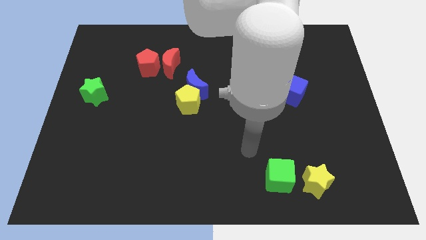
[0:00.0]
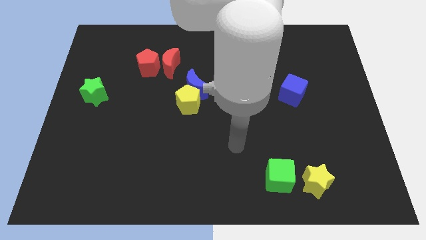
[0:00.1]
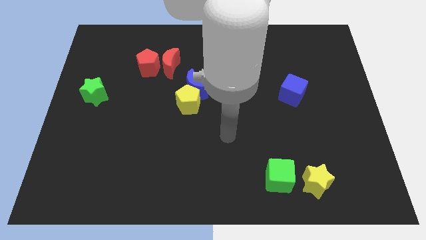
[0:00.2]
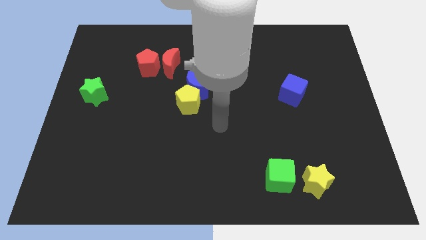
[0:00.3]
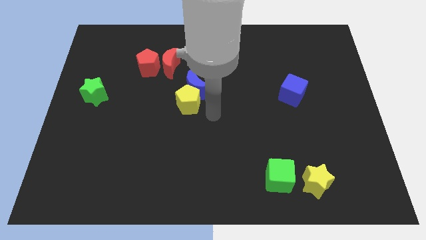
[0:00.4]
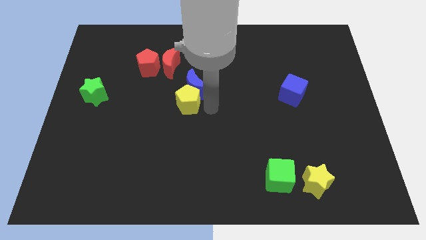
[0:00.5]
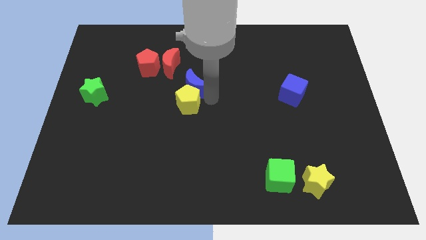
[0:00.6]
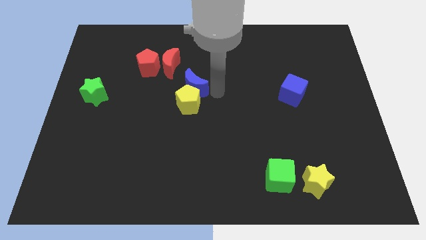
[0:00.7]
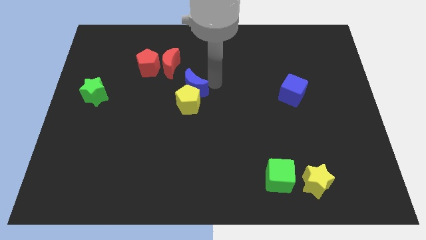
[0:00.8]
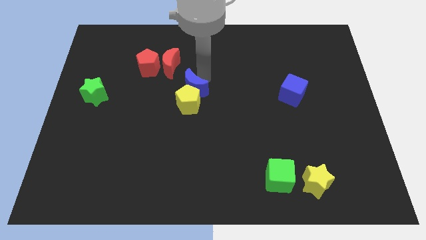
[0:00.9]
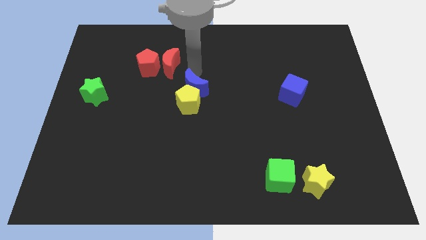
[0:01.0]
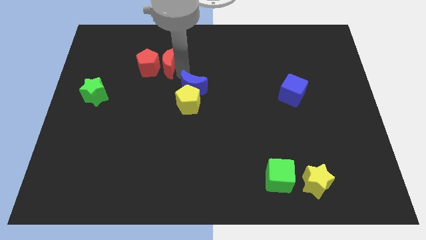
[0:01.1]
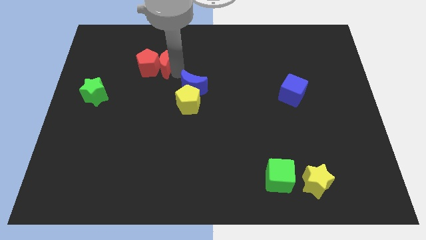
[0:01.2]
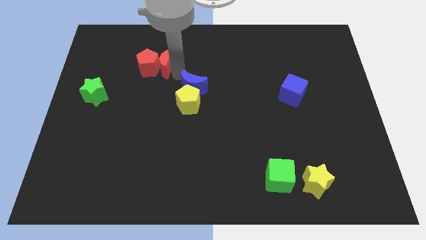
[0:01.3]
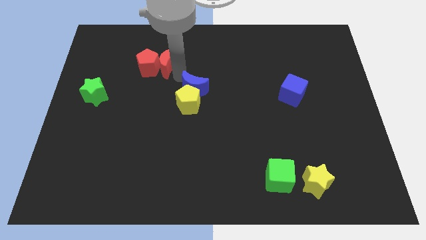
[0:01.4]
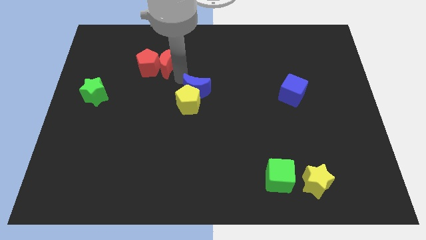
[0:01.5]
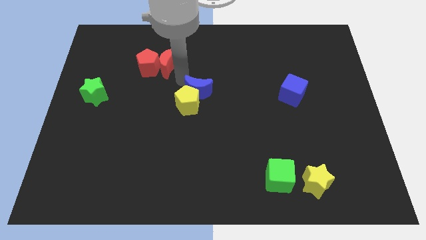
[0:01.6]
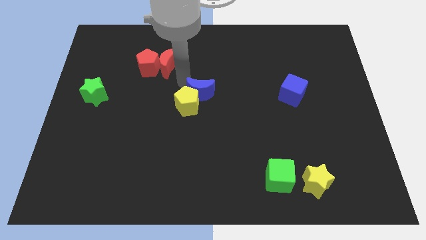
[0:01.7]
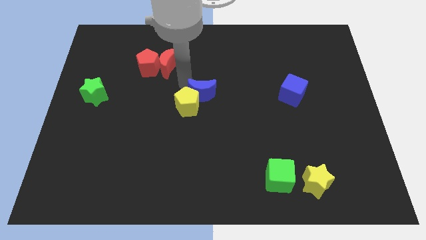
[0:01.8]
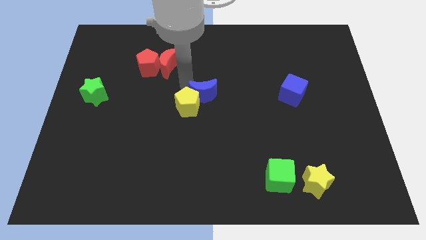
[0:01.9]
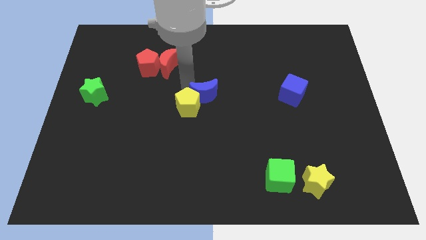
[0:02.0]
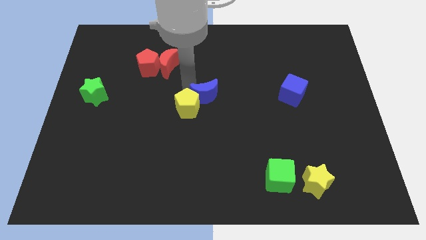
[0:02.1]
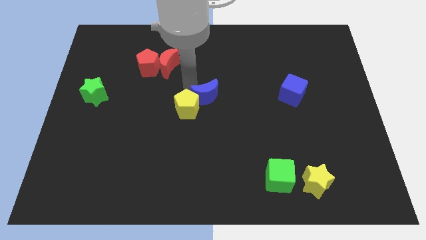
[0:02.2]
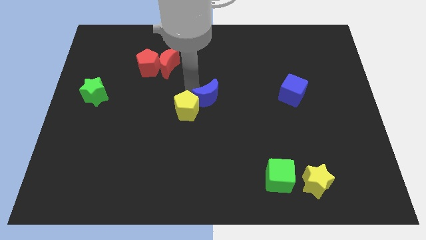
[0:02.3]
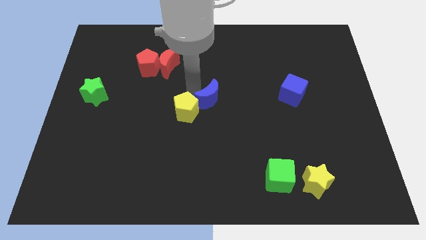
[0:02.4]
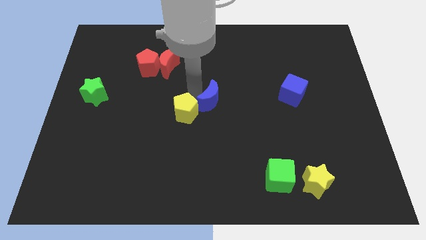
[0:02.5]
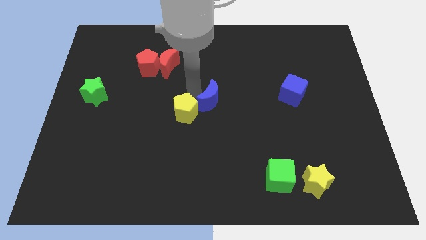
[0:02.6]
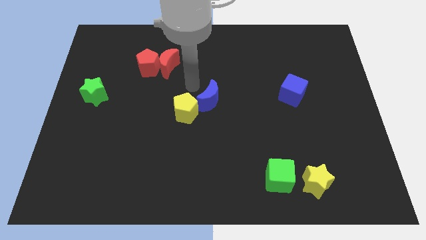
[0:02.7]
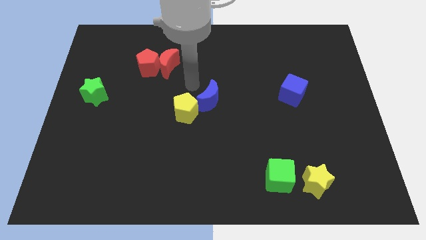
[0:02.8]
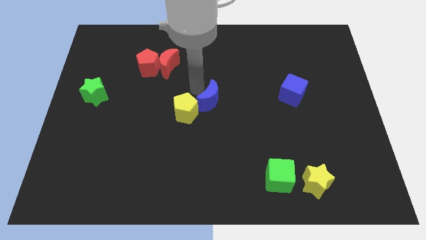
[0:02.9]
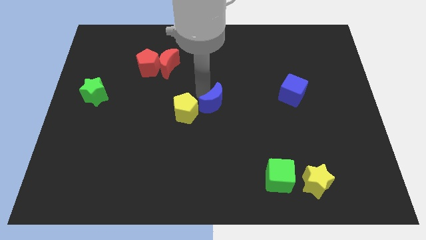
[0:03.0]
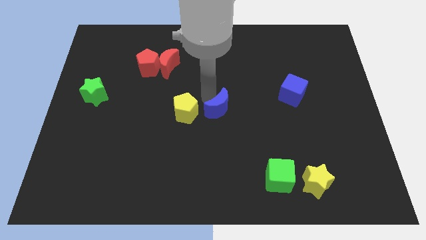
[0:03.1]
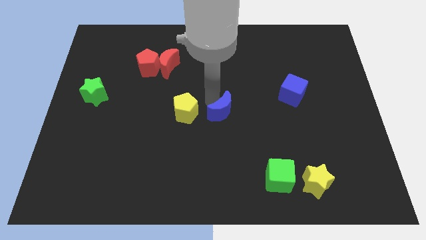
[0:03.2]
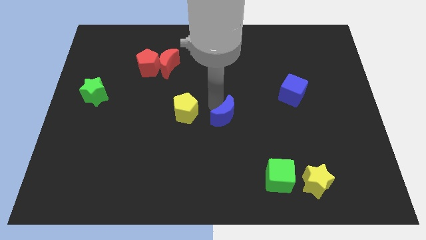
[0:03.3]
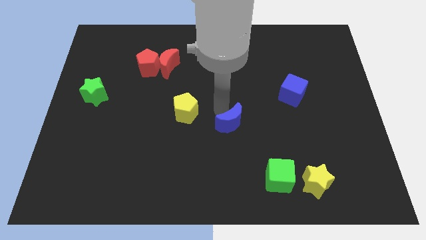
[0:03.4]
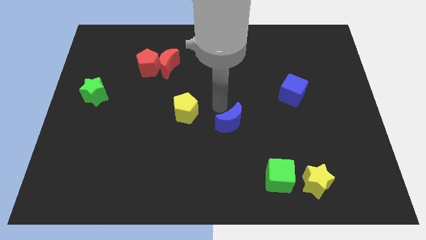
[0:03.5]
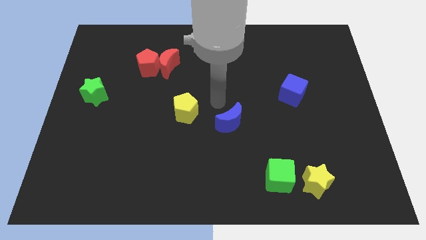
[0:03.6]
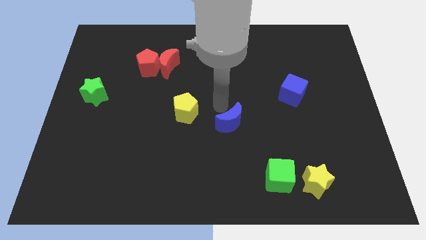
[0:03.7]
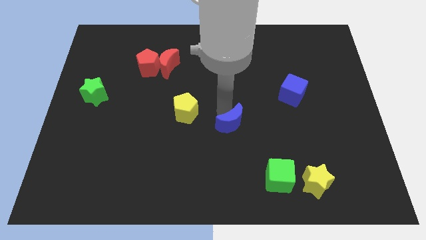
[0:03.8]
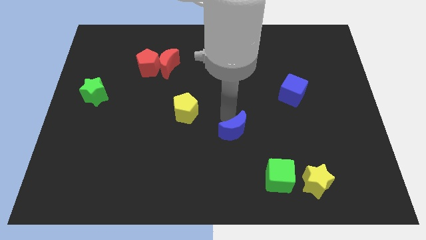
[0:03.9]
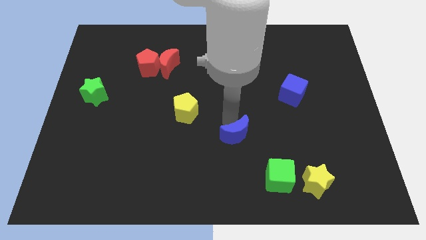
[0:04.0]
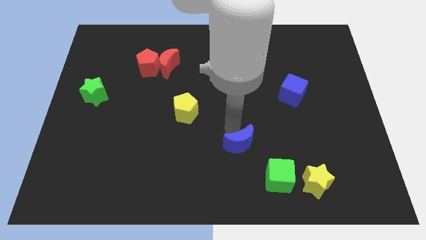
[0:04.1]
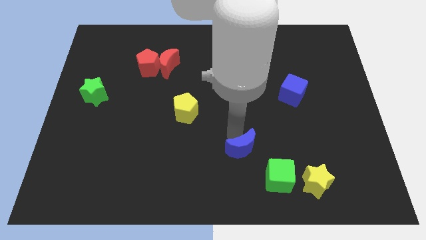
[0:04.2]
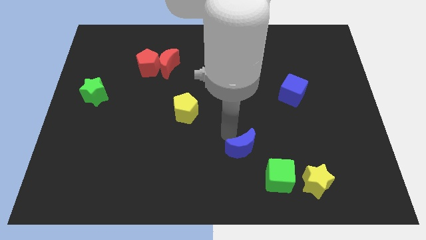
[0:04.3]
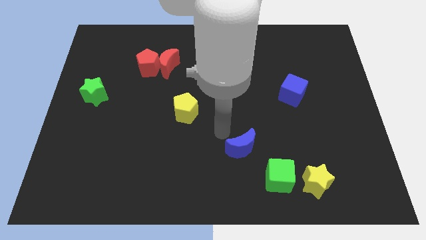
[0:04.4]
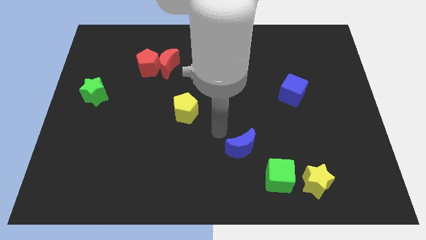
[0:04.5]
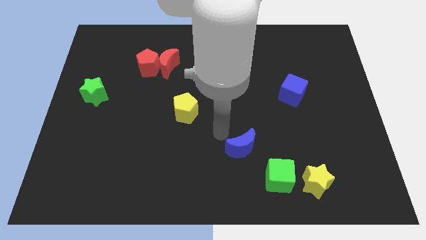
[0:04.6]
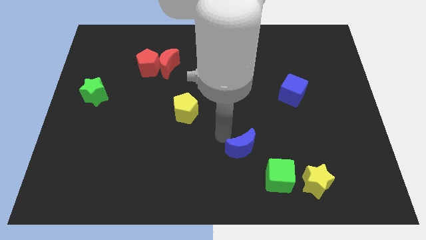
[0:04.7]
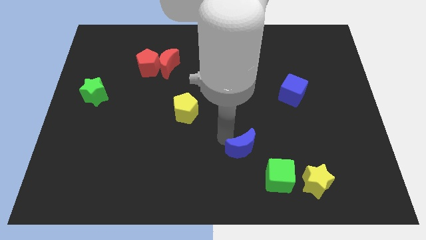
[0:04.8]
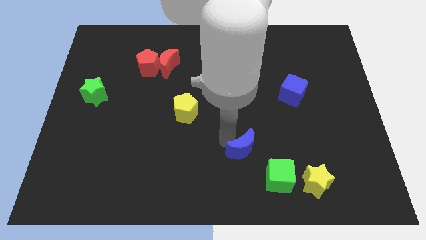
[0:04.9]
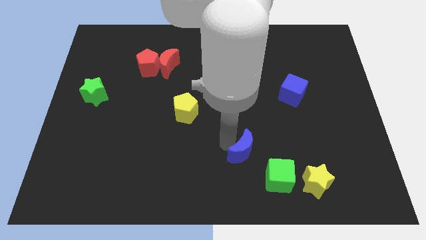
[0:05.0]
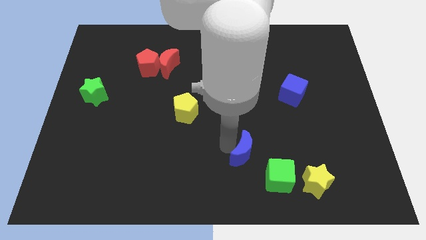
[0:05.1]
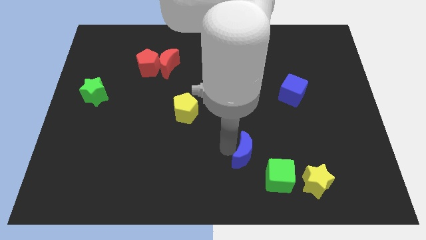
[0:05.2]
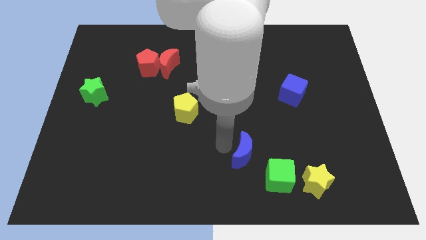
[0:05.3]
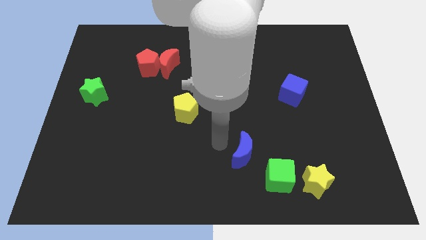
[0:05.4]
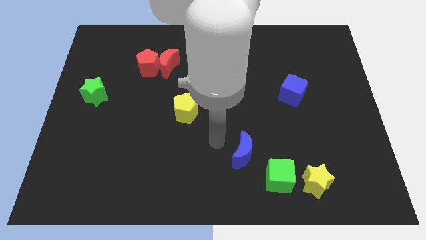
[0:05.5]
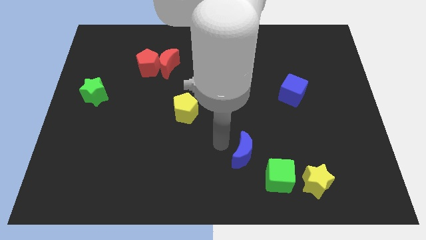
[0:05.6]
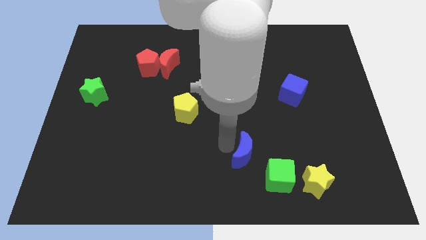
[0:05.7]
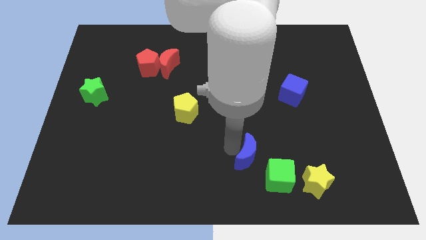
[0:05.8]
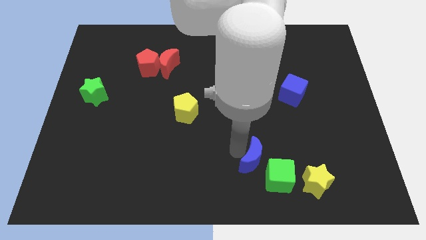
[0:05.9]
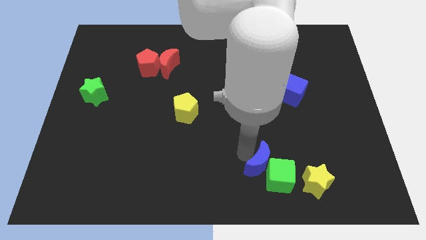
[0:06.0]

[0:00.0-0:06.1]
push the blue moon towards the green cube

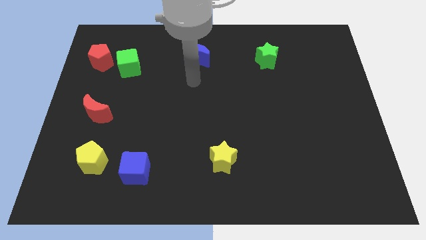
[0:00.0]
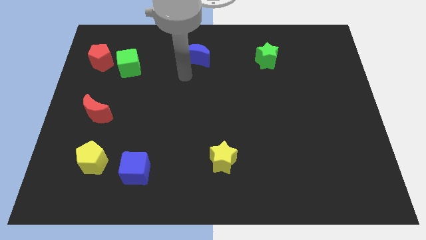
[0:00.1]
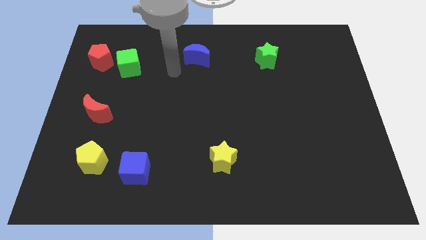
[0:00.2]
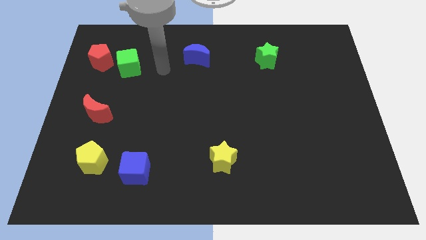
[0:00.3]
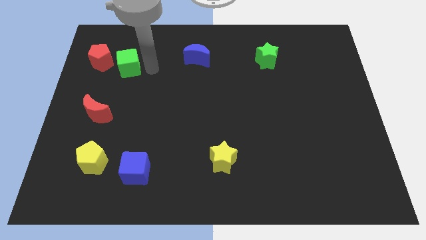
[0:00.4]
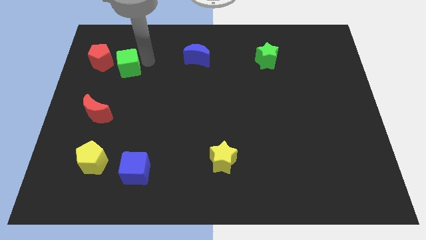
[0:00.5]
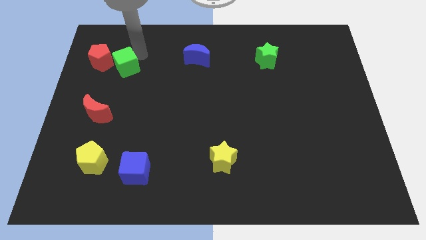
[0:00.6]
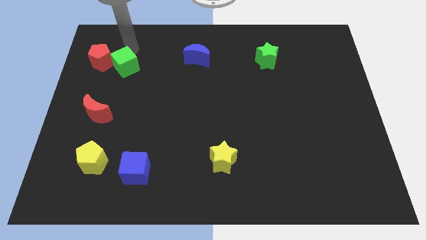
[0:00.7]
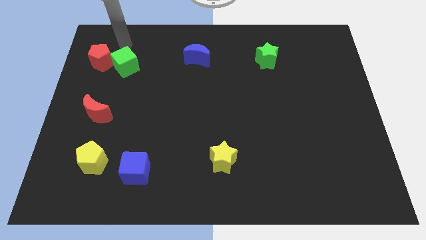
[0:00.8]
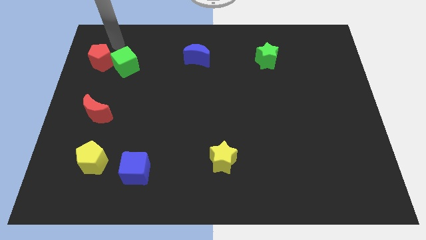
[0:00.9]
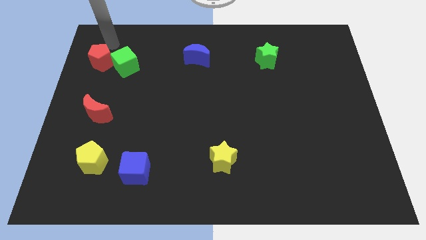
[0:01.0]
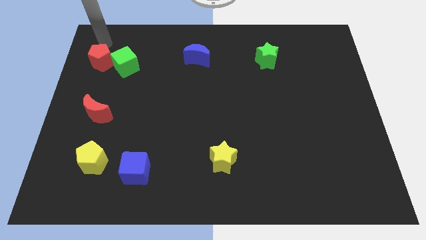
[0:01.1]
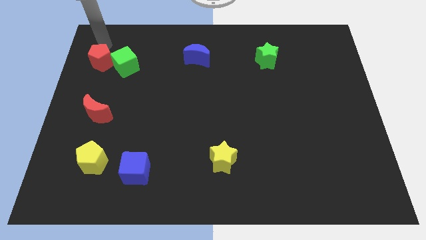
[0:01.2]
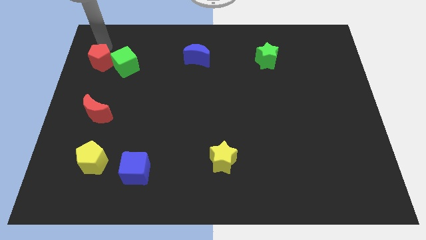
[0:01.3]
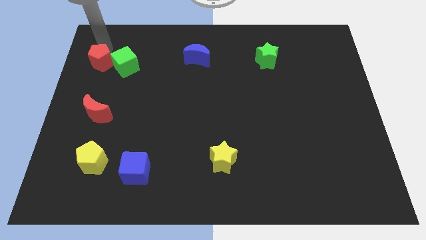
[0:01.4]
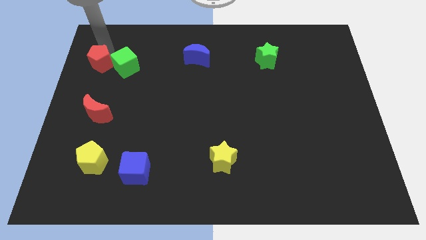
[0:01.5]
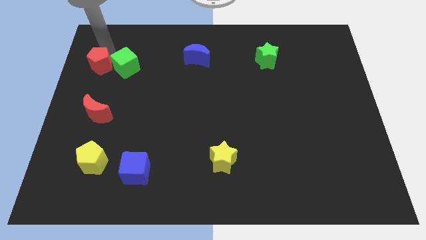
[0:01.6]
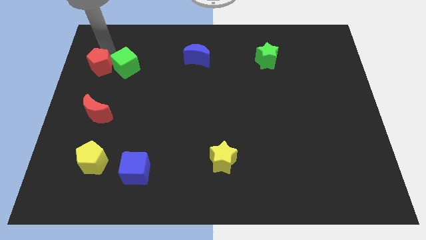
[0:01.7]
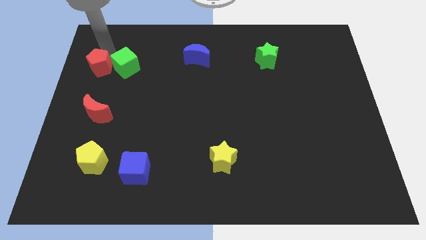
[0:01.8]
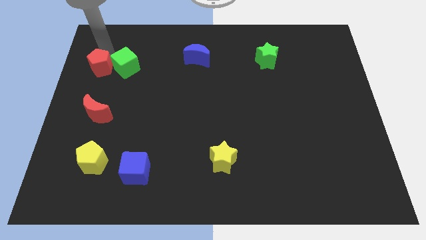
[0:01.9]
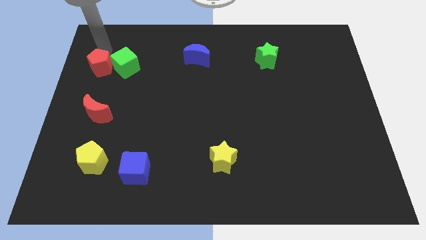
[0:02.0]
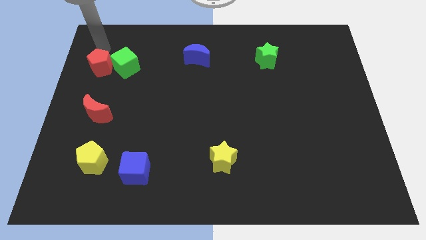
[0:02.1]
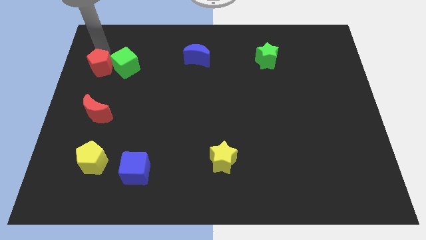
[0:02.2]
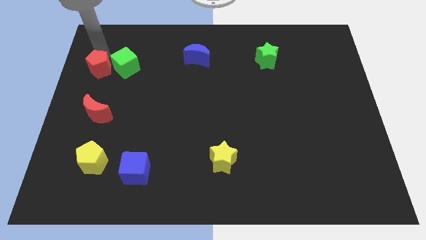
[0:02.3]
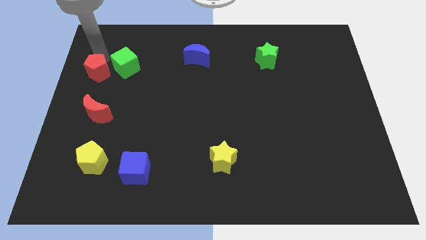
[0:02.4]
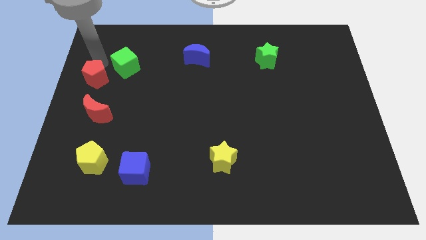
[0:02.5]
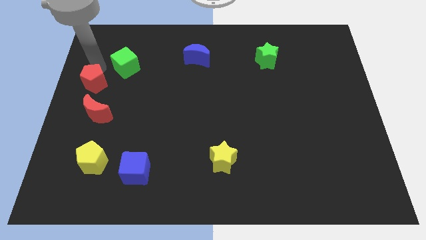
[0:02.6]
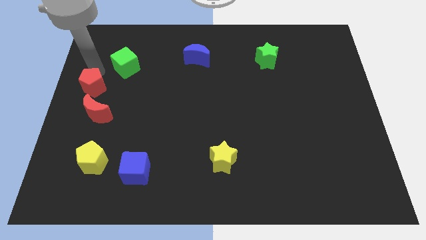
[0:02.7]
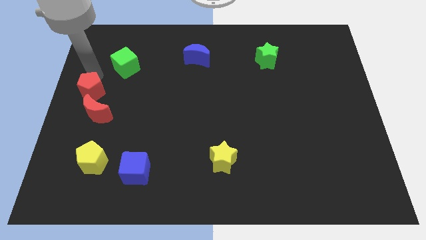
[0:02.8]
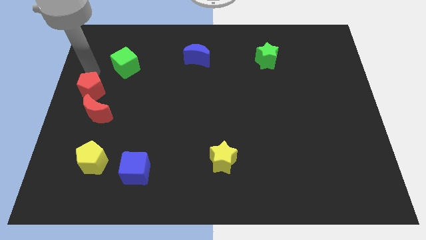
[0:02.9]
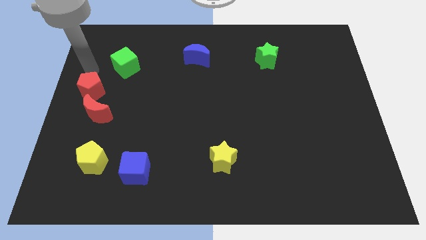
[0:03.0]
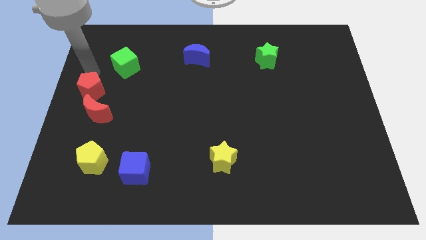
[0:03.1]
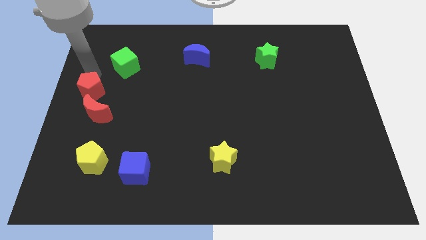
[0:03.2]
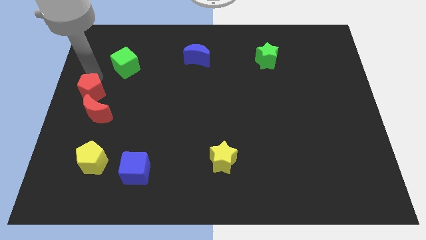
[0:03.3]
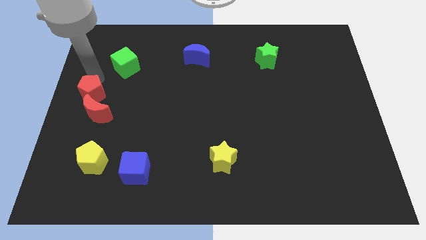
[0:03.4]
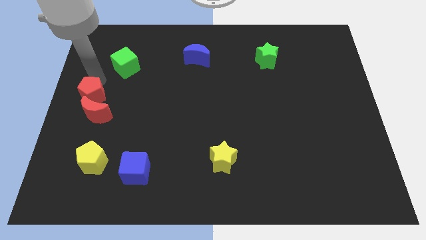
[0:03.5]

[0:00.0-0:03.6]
push the red pentagon next to the red moon
